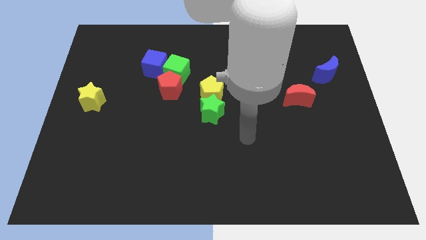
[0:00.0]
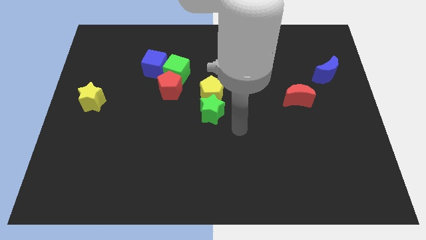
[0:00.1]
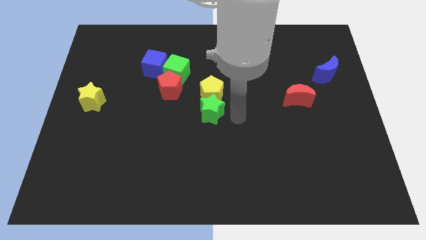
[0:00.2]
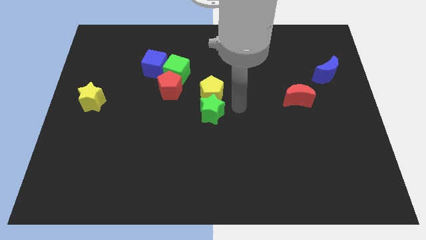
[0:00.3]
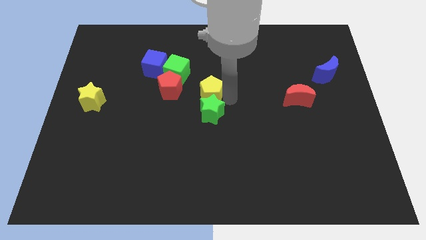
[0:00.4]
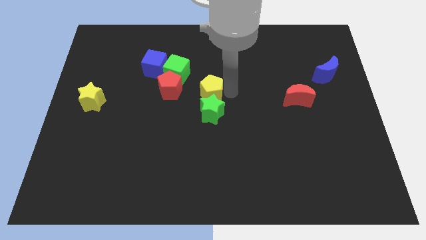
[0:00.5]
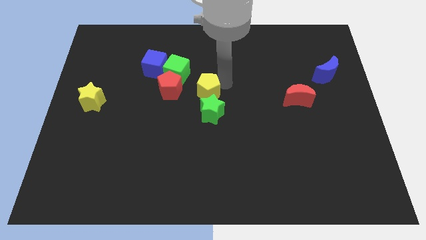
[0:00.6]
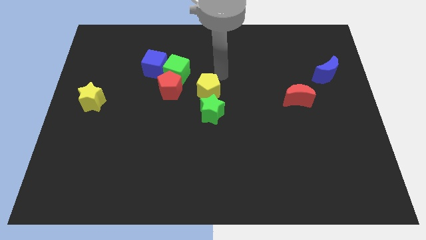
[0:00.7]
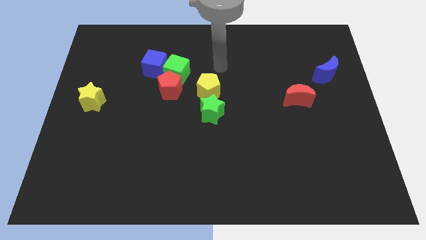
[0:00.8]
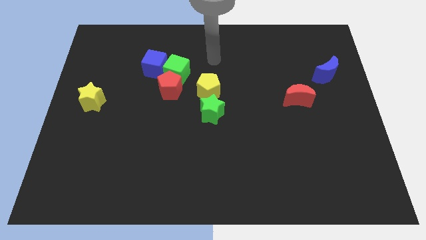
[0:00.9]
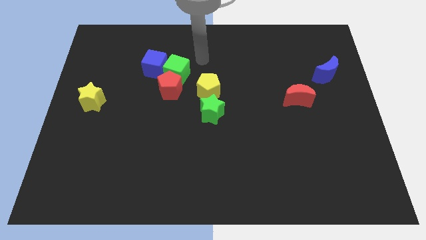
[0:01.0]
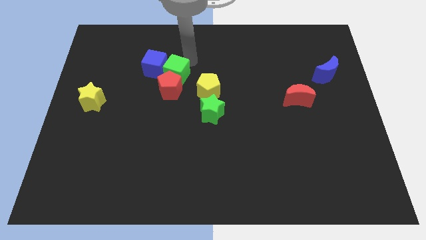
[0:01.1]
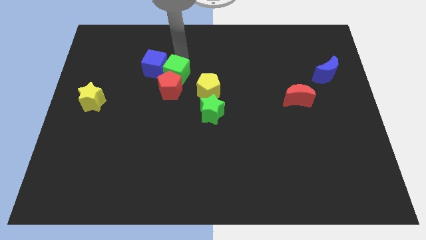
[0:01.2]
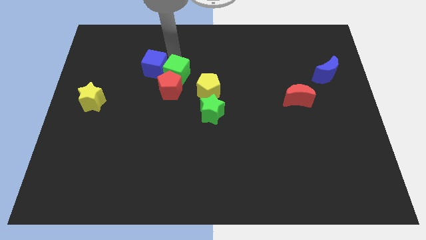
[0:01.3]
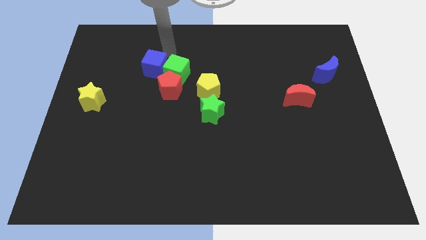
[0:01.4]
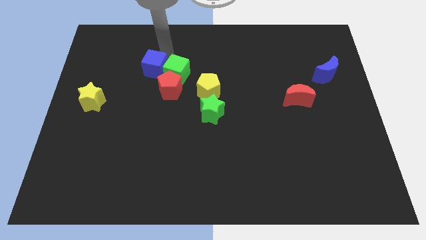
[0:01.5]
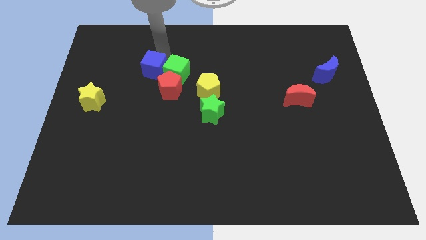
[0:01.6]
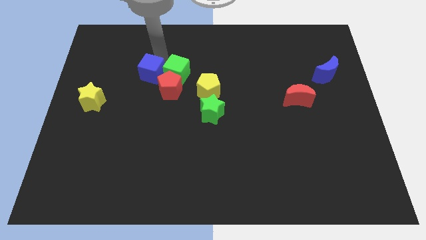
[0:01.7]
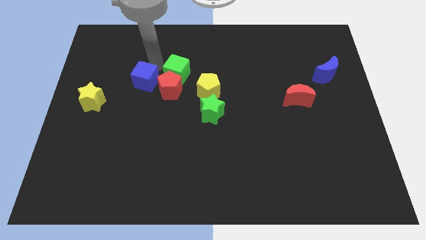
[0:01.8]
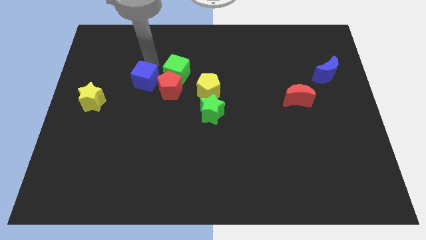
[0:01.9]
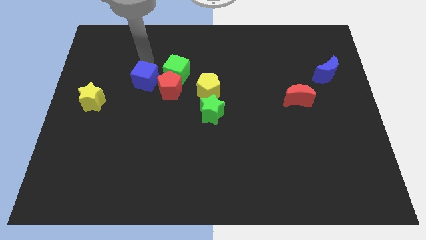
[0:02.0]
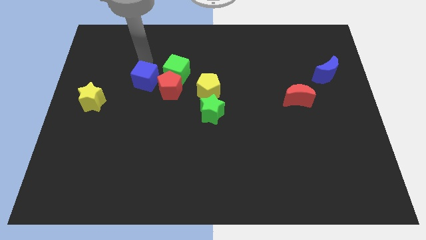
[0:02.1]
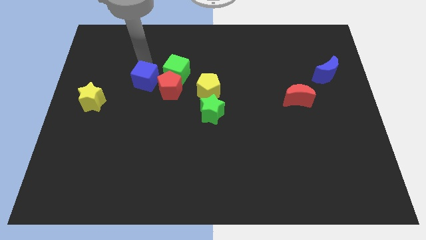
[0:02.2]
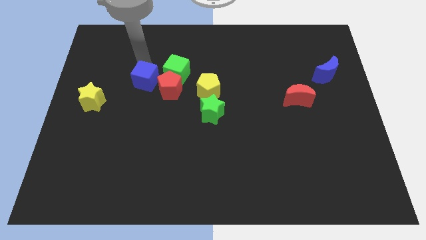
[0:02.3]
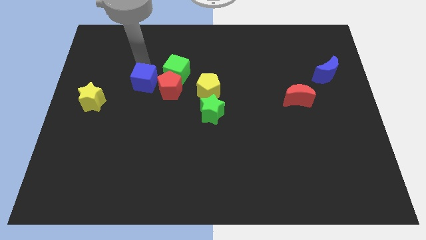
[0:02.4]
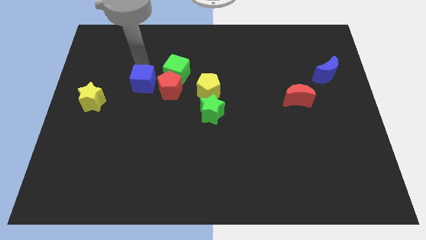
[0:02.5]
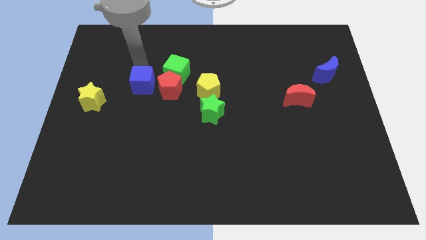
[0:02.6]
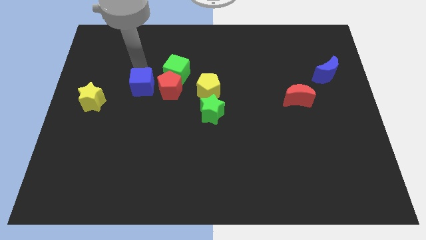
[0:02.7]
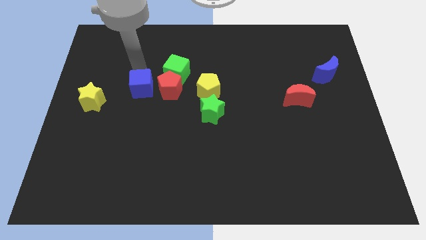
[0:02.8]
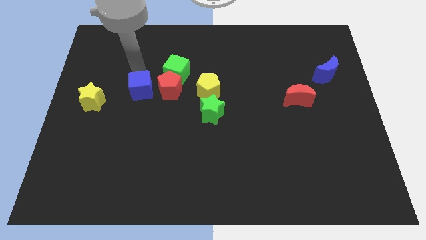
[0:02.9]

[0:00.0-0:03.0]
slide the blue cube a bit downwards

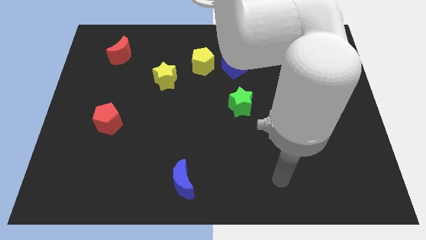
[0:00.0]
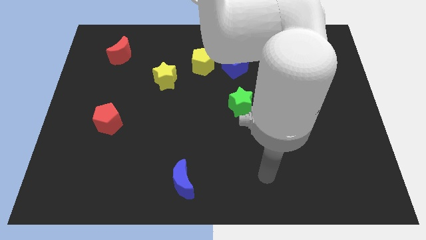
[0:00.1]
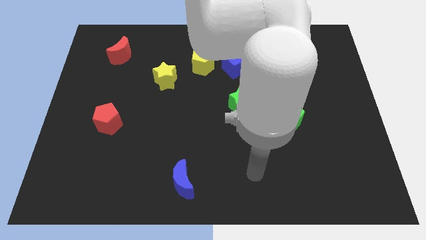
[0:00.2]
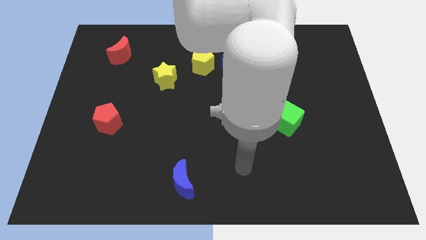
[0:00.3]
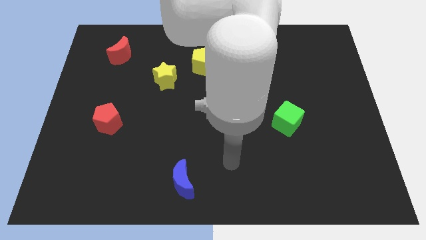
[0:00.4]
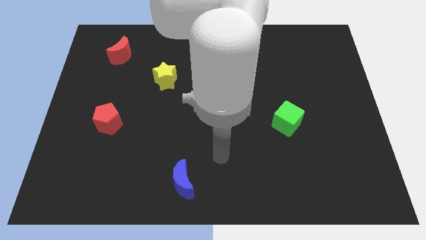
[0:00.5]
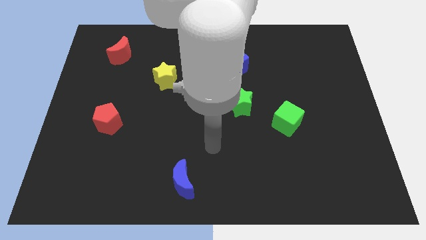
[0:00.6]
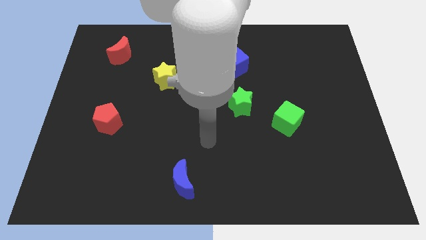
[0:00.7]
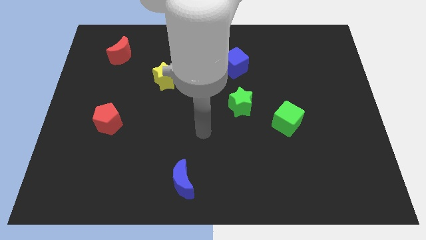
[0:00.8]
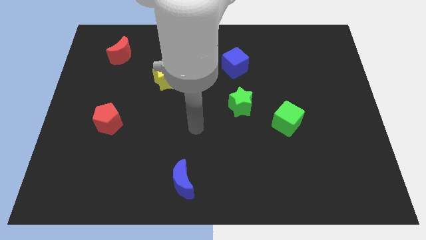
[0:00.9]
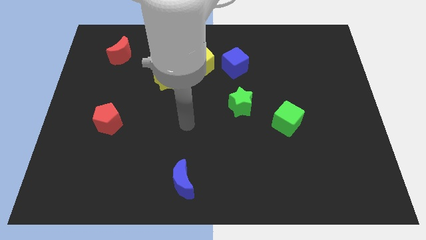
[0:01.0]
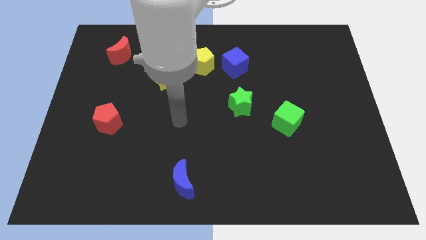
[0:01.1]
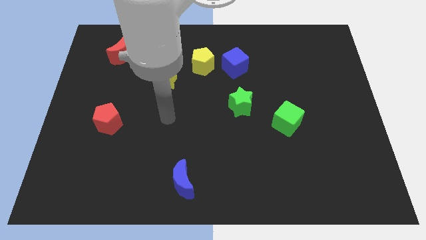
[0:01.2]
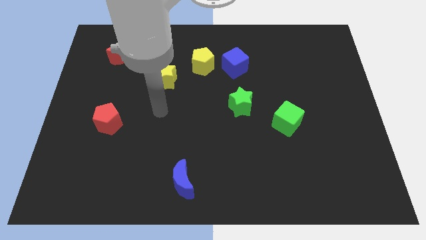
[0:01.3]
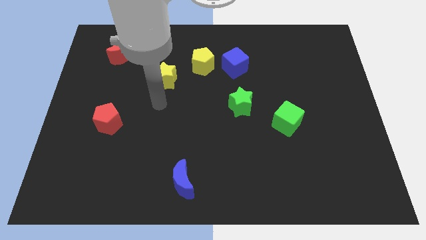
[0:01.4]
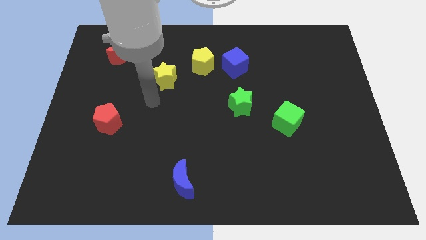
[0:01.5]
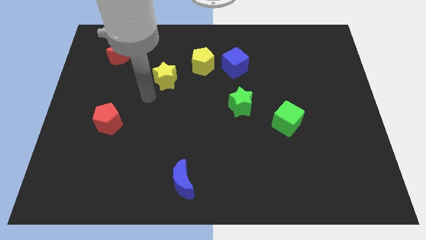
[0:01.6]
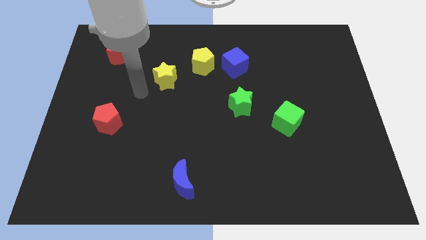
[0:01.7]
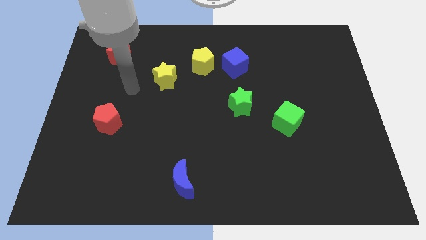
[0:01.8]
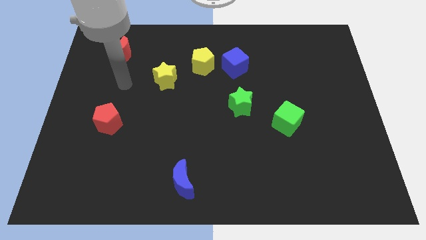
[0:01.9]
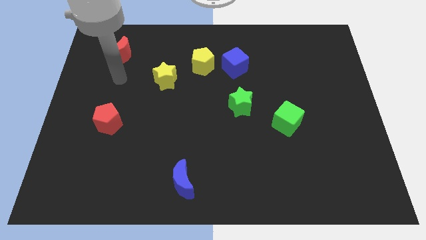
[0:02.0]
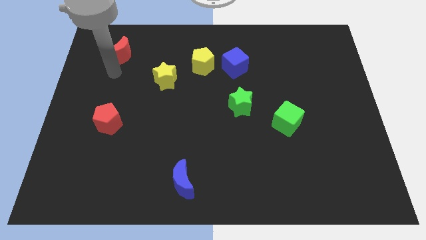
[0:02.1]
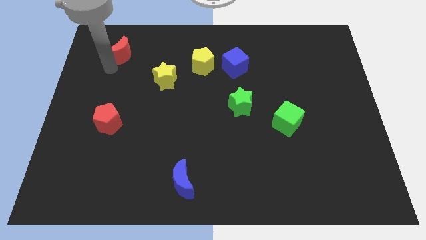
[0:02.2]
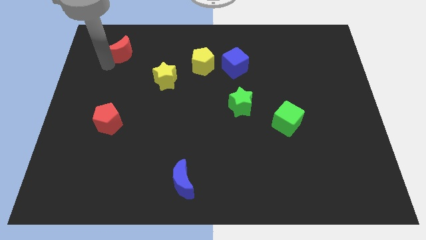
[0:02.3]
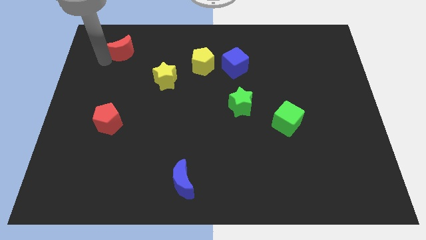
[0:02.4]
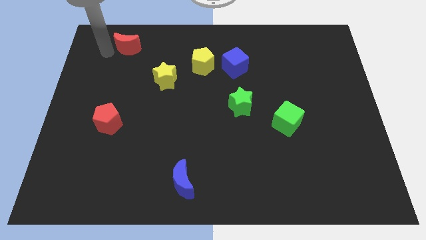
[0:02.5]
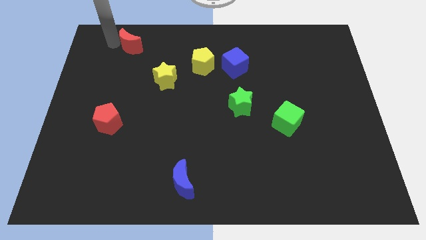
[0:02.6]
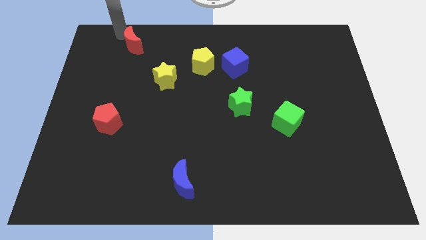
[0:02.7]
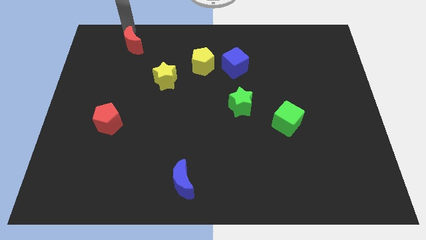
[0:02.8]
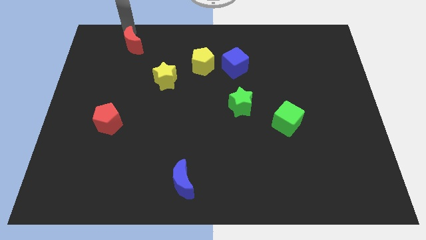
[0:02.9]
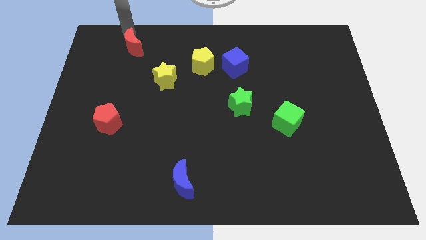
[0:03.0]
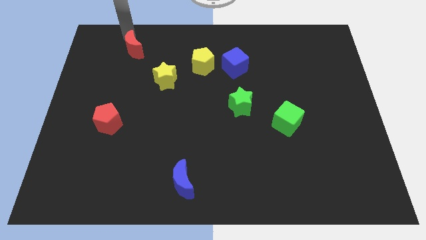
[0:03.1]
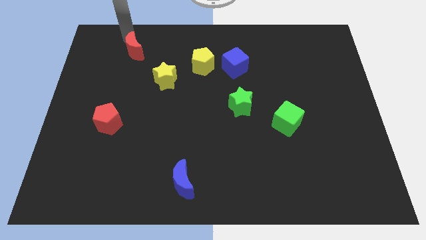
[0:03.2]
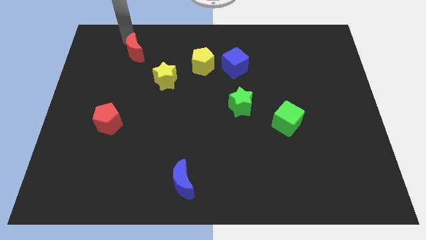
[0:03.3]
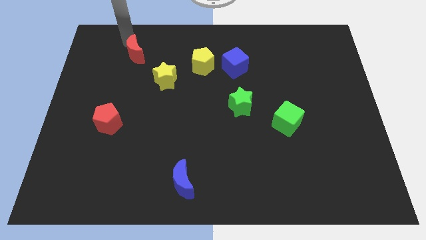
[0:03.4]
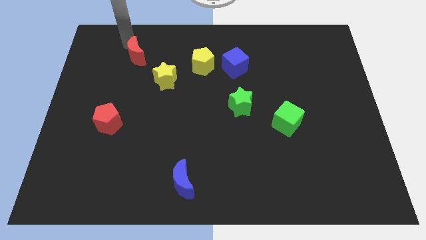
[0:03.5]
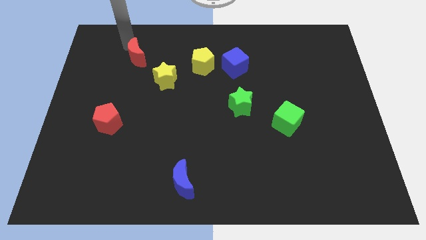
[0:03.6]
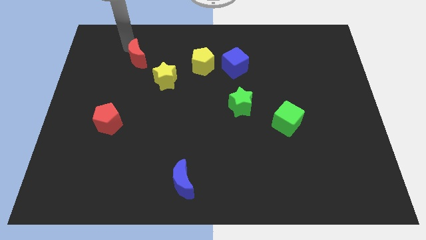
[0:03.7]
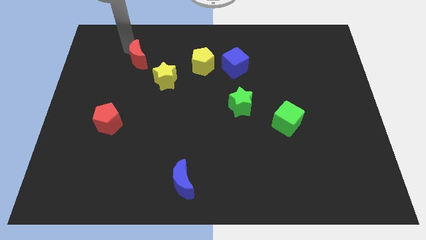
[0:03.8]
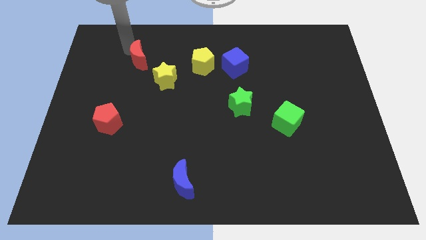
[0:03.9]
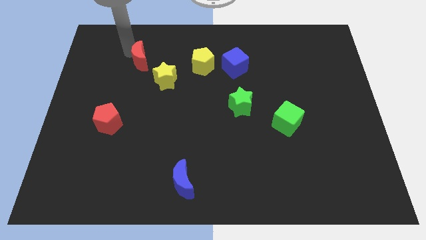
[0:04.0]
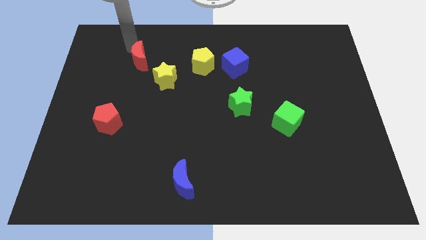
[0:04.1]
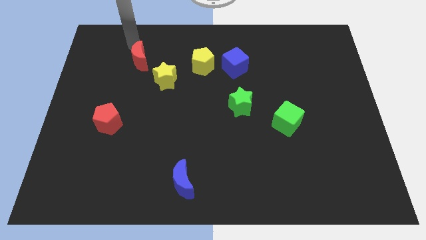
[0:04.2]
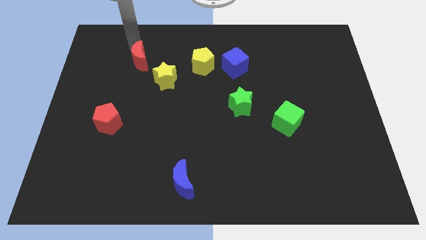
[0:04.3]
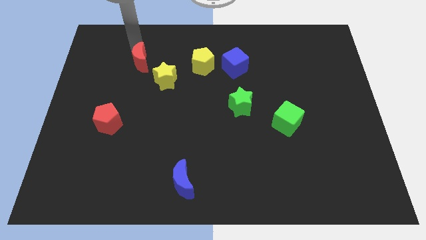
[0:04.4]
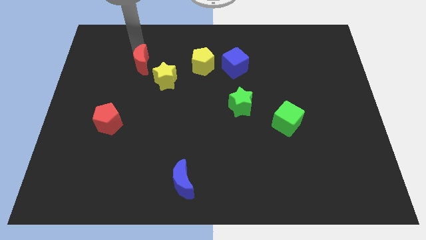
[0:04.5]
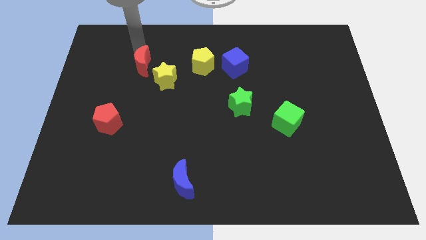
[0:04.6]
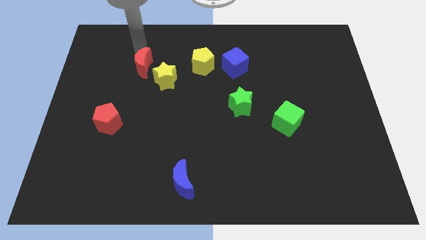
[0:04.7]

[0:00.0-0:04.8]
slightly slide the red moon diagonally down and right

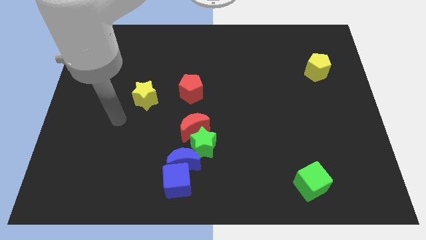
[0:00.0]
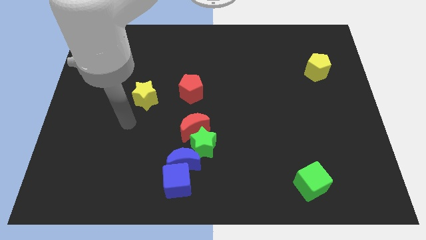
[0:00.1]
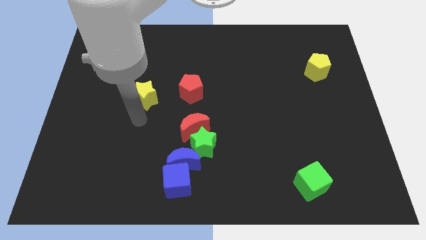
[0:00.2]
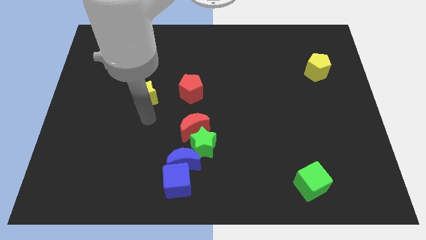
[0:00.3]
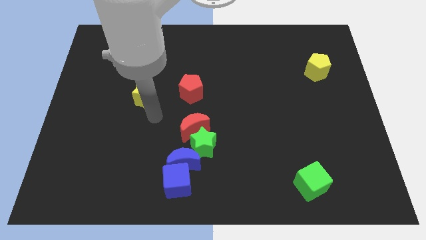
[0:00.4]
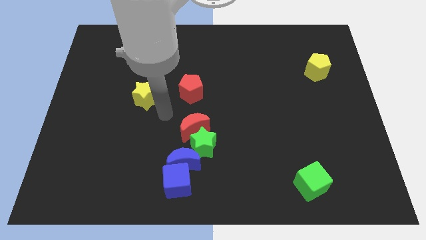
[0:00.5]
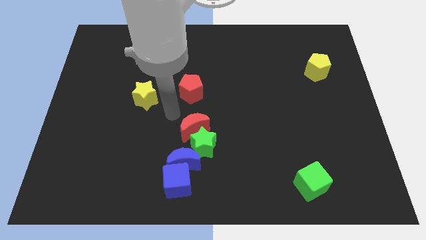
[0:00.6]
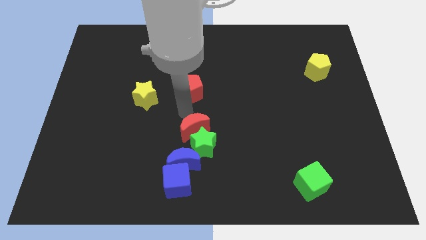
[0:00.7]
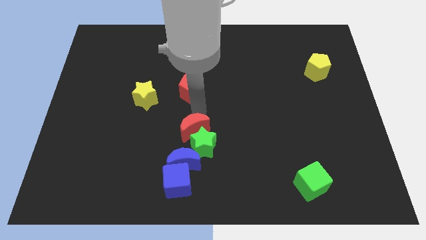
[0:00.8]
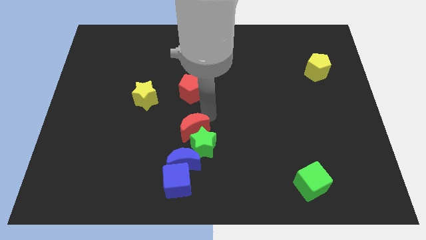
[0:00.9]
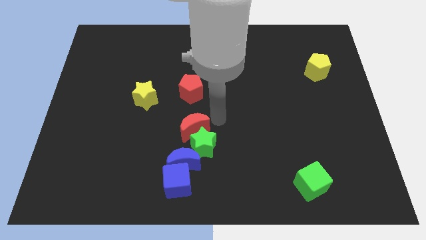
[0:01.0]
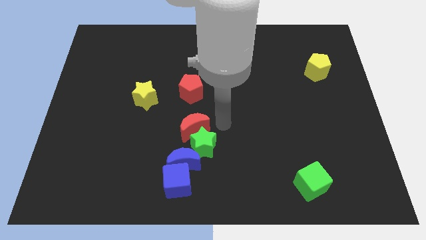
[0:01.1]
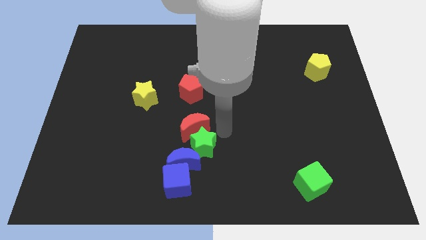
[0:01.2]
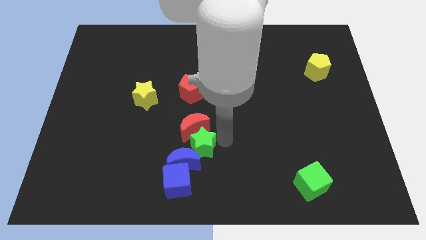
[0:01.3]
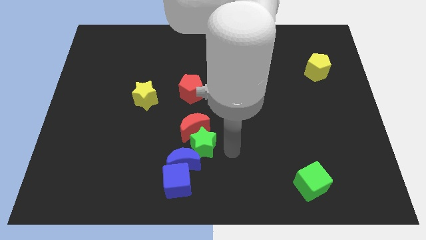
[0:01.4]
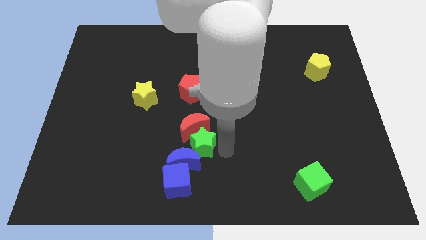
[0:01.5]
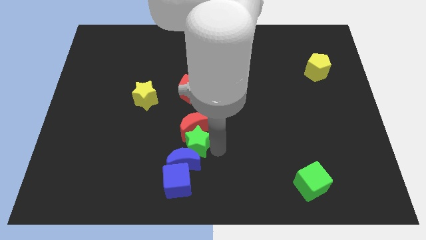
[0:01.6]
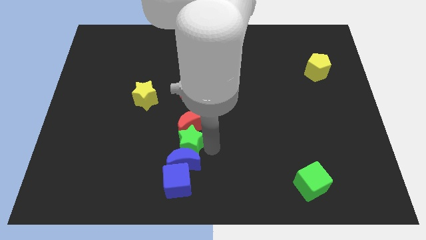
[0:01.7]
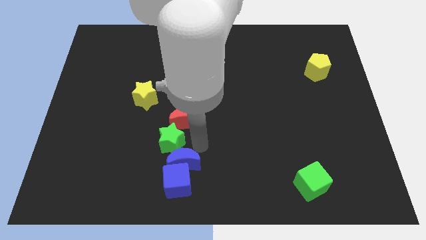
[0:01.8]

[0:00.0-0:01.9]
slightly push the green star left
